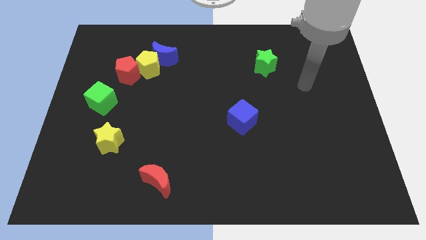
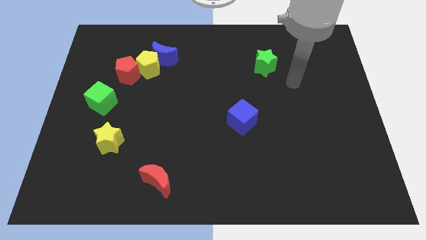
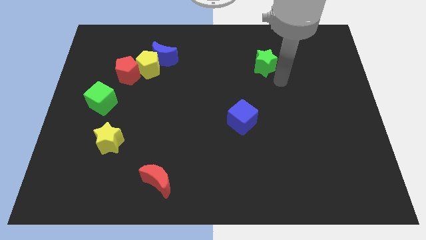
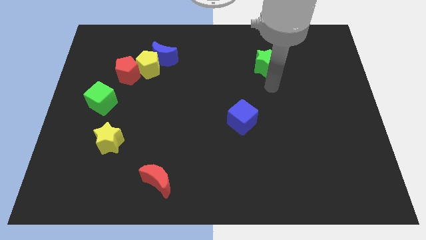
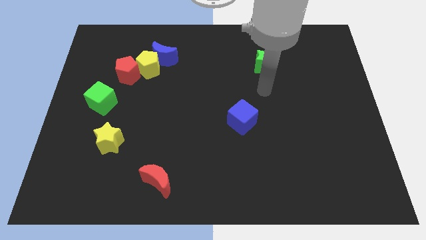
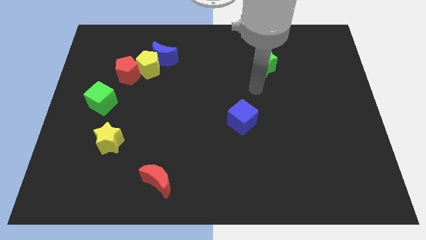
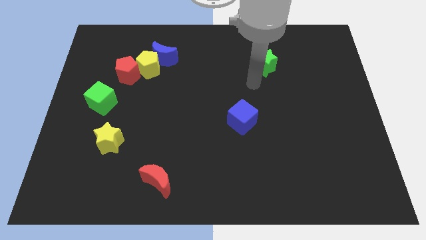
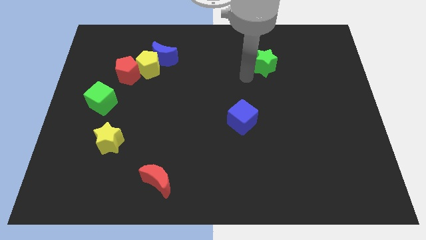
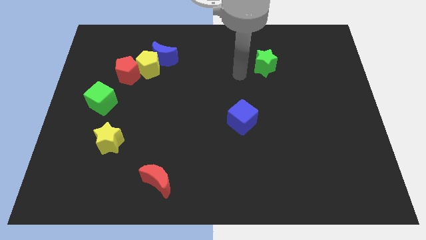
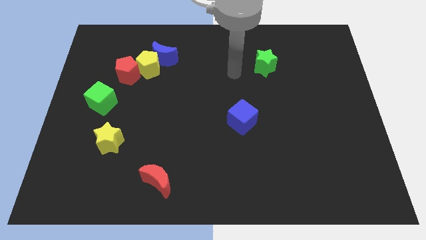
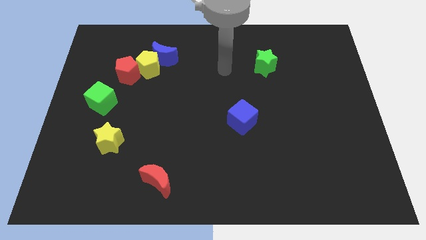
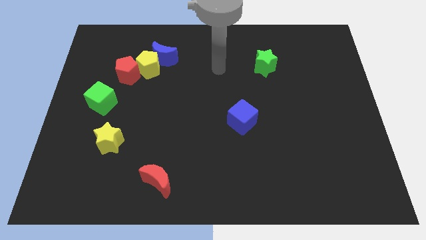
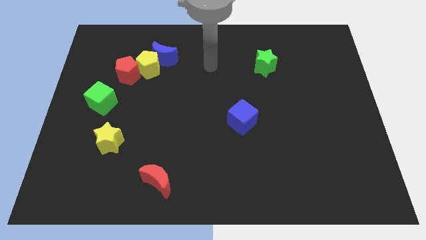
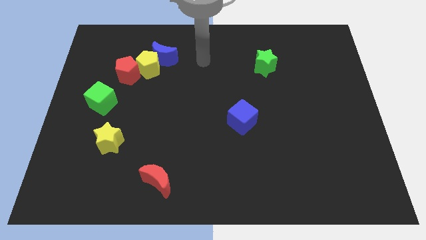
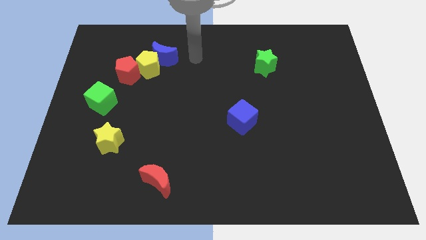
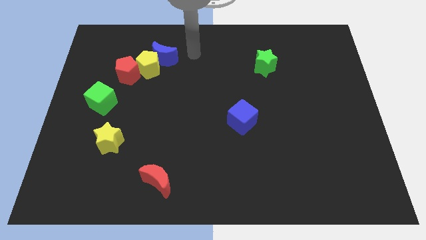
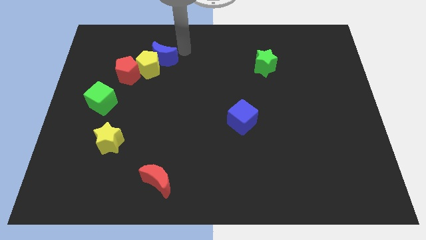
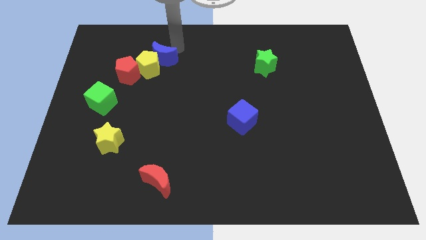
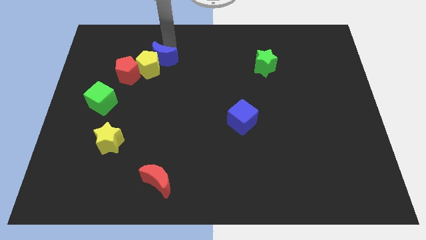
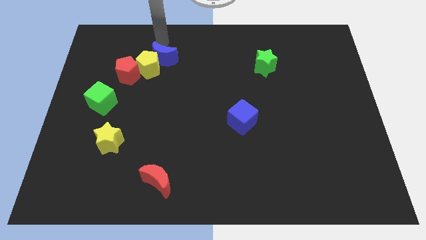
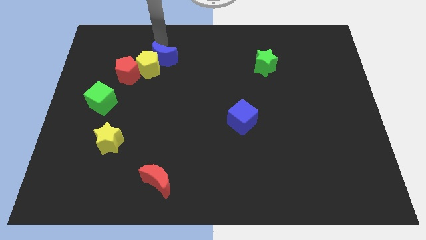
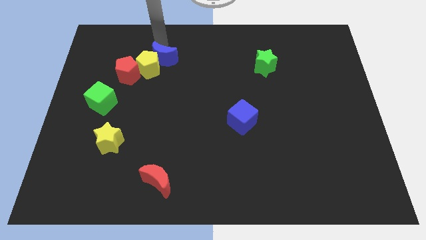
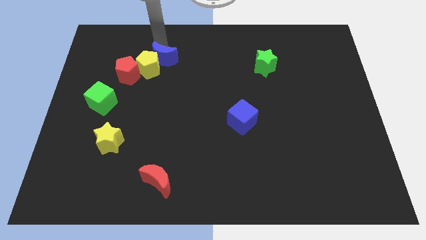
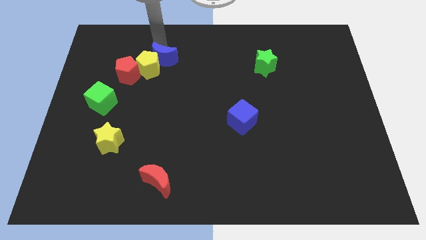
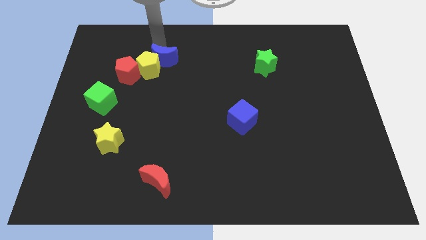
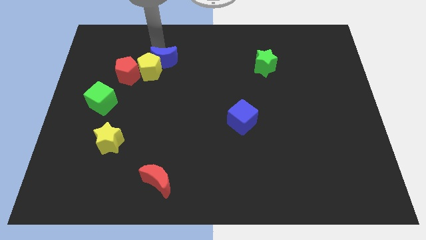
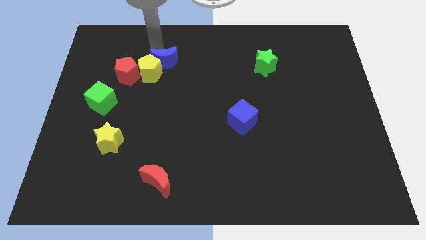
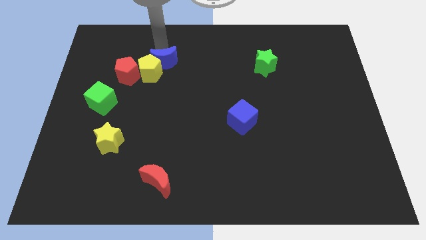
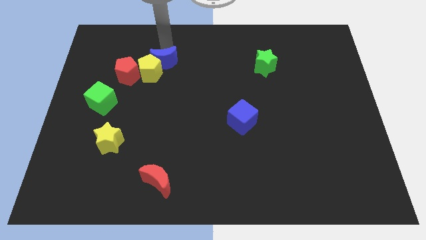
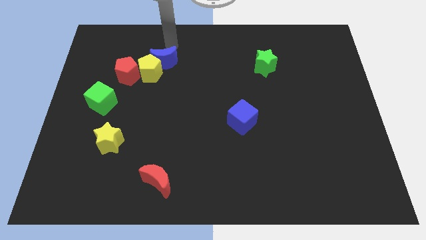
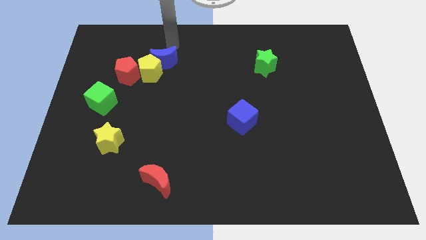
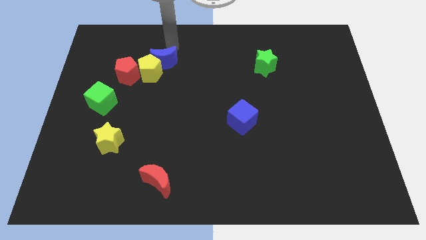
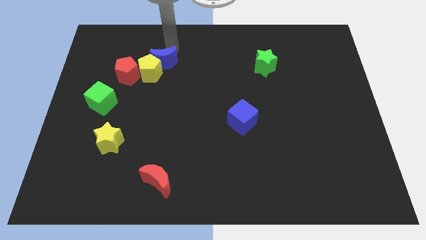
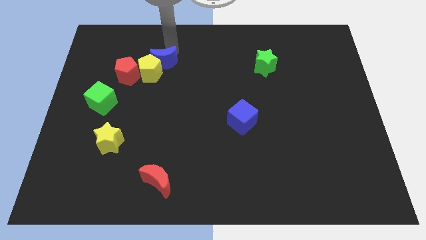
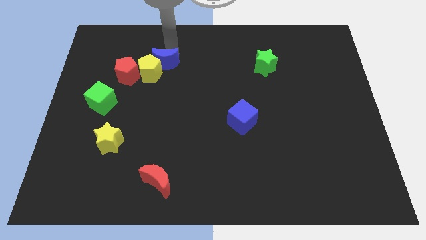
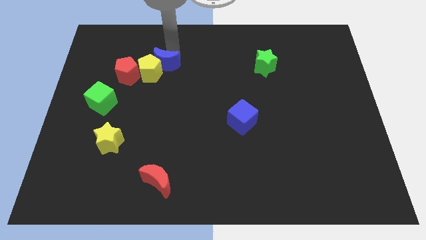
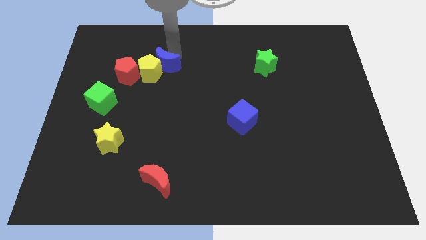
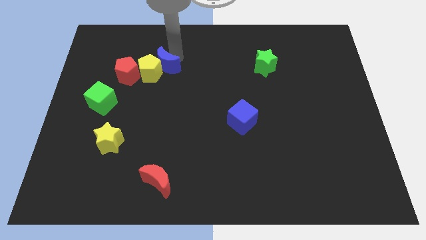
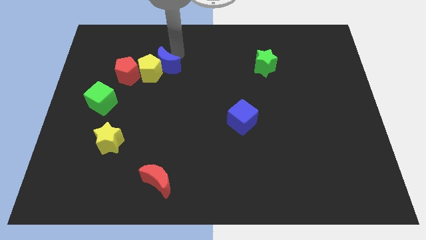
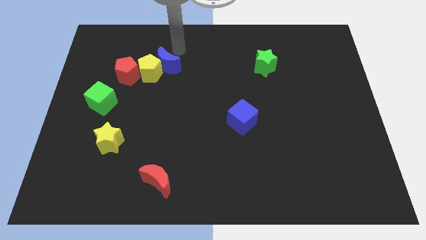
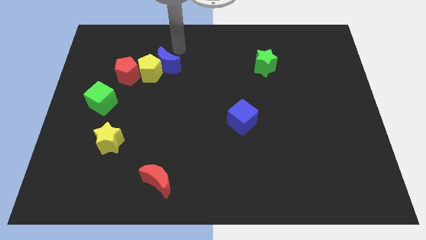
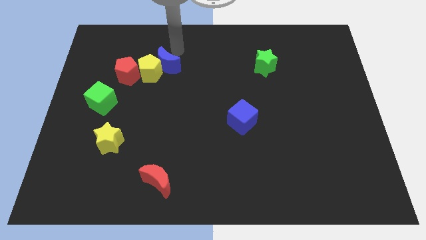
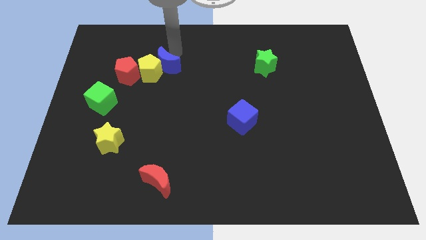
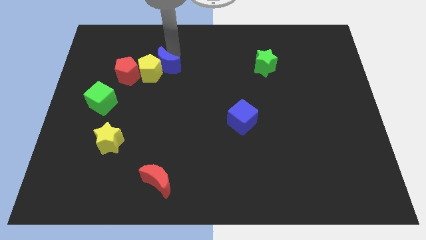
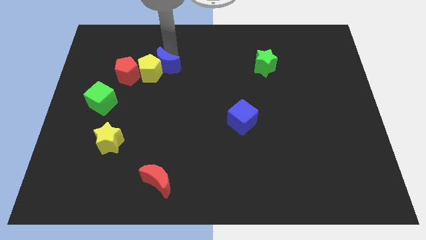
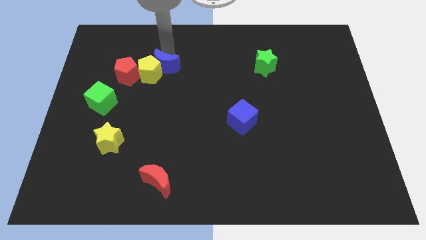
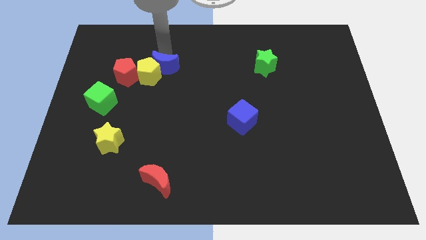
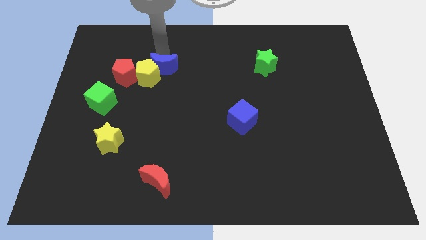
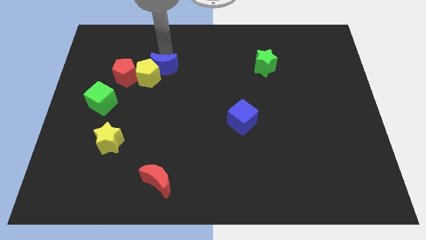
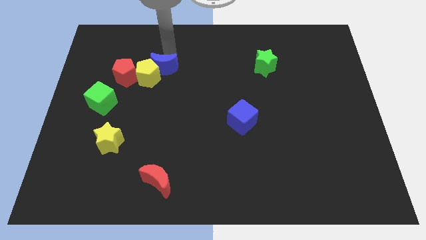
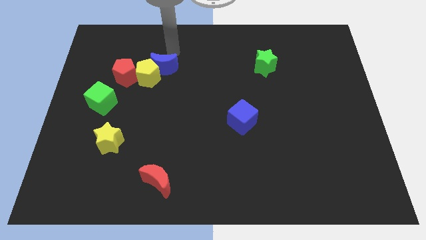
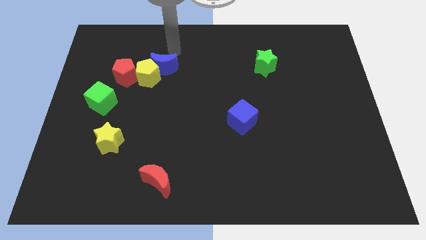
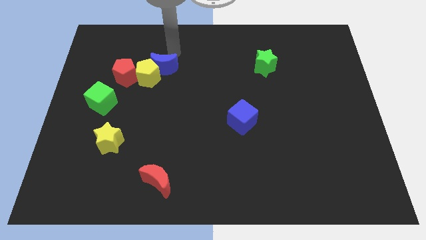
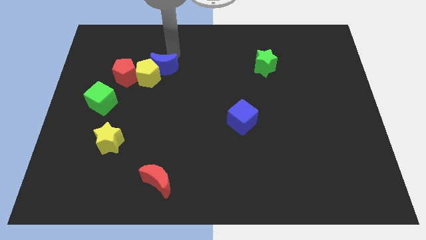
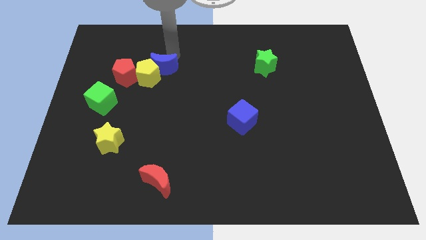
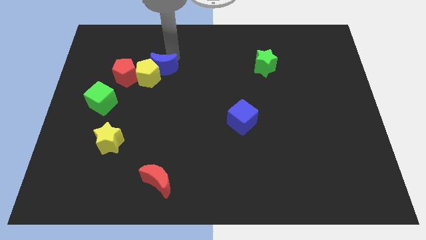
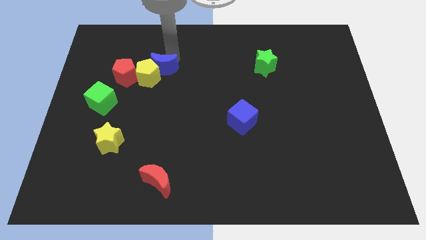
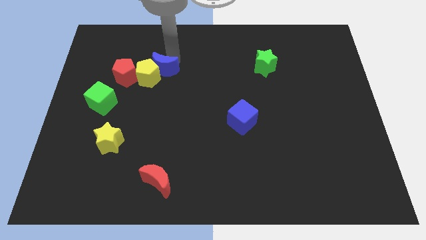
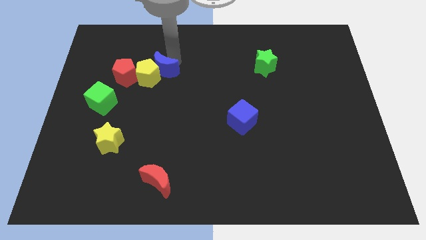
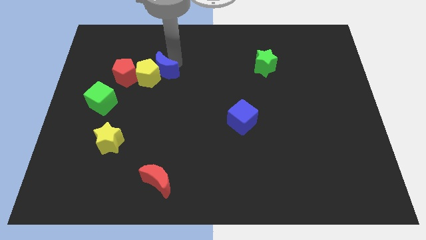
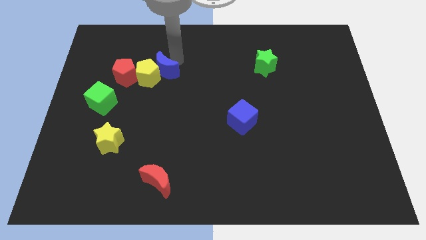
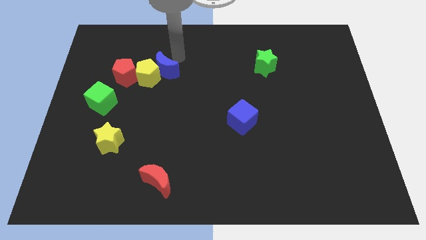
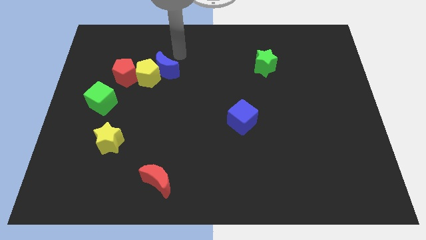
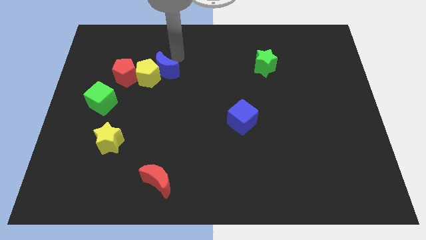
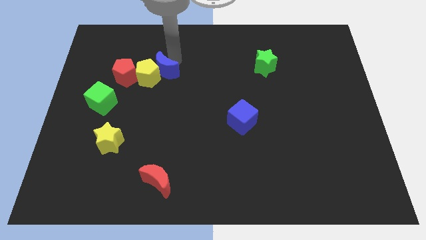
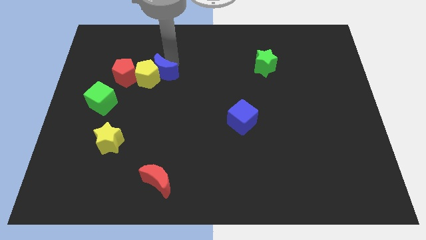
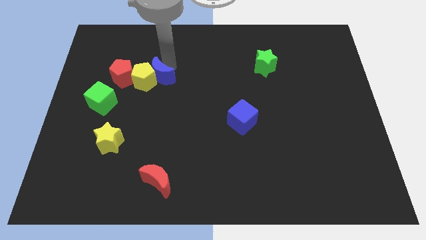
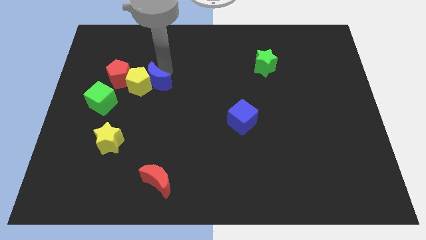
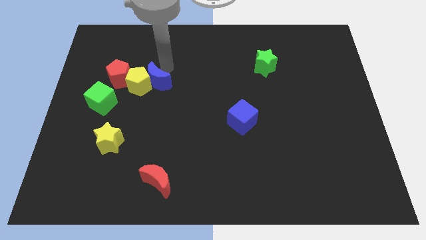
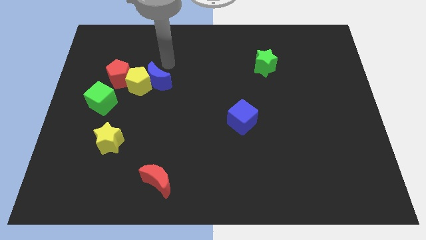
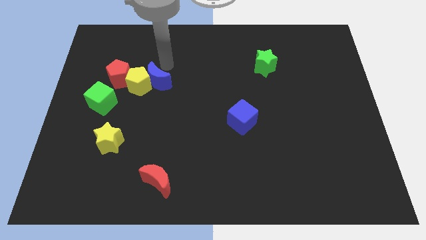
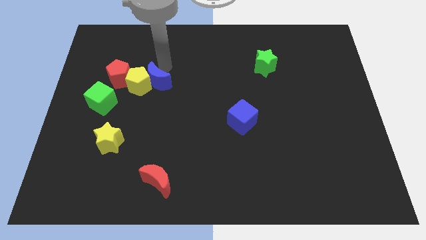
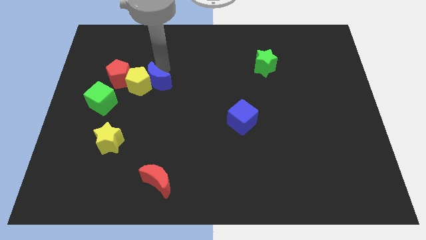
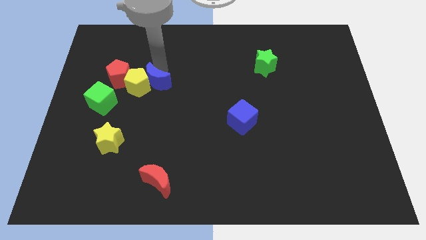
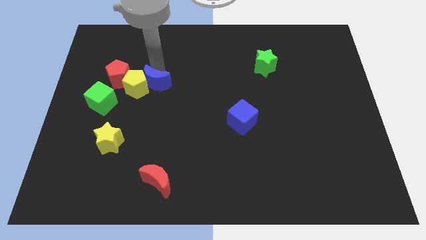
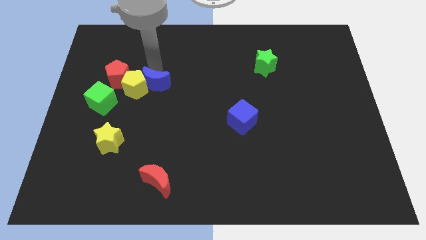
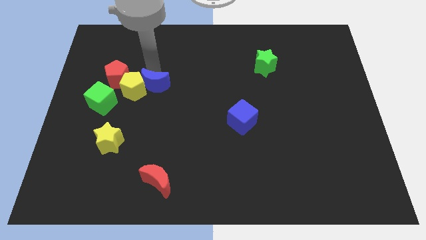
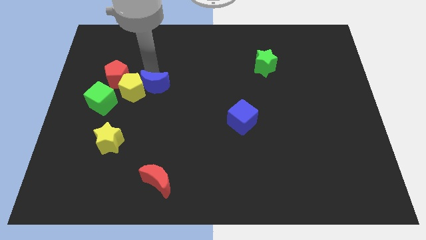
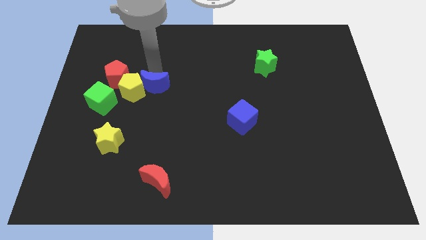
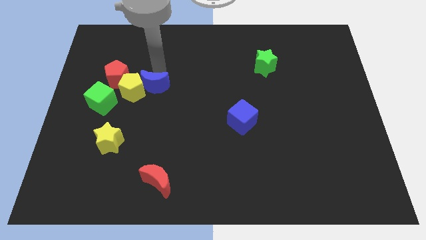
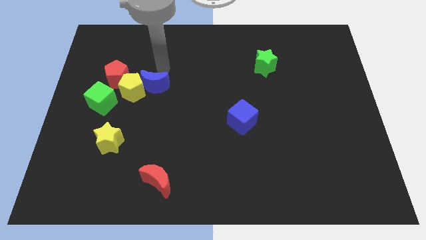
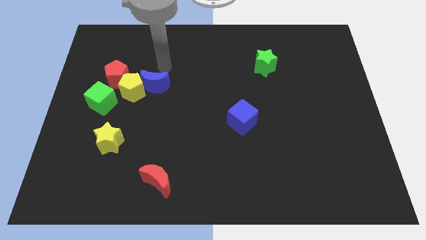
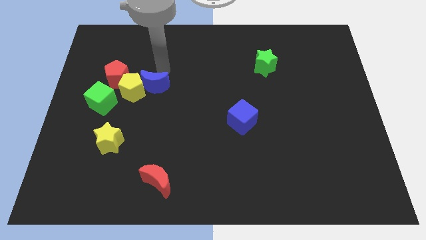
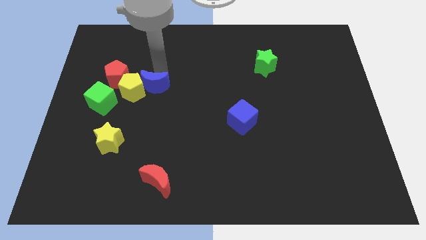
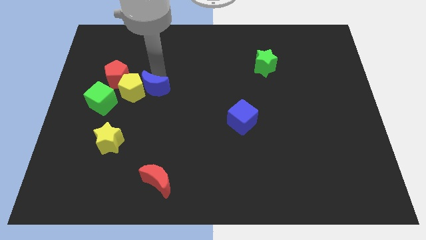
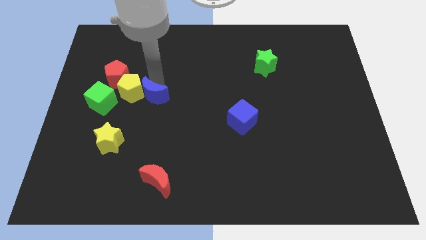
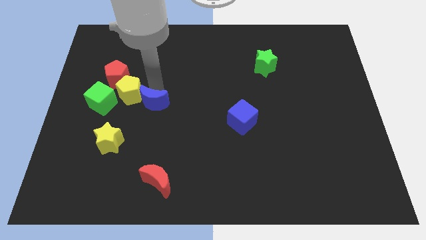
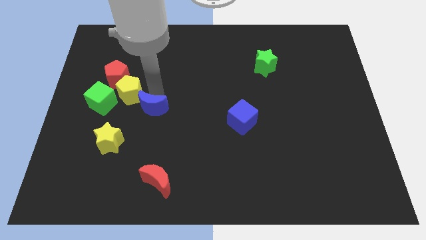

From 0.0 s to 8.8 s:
move the blue moon to the top right side of the yellow star
